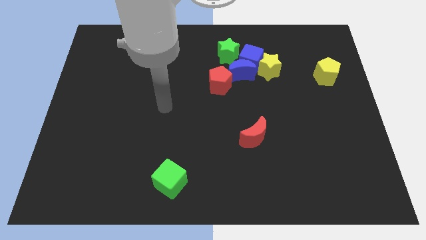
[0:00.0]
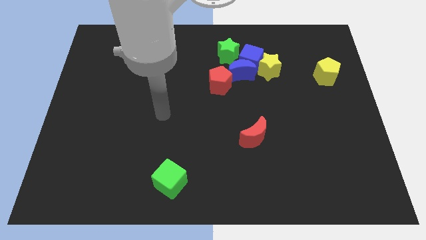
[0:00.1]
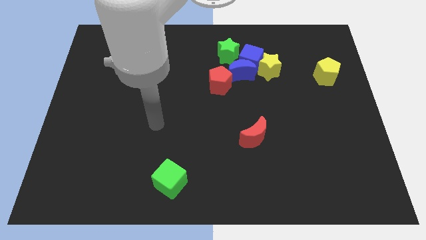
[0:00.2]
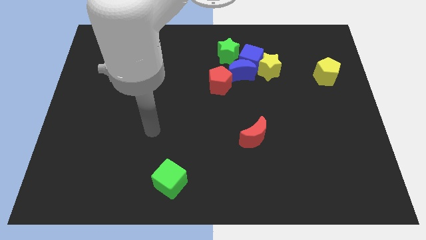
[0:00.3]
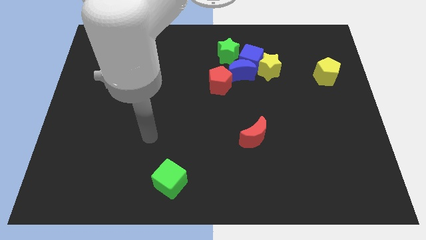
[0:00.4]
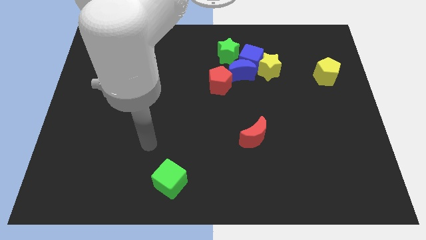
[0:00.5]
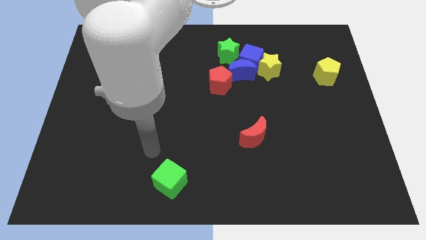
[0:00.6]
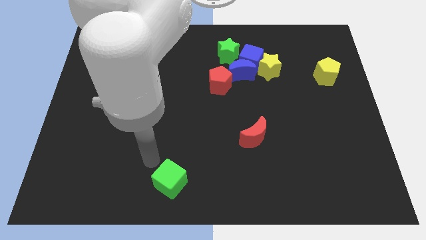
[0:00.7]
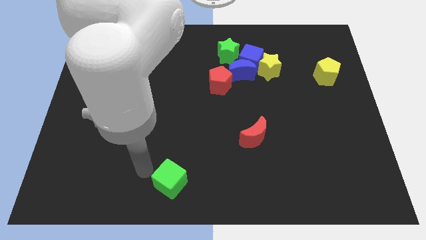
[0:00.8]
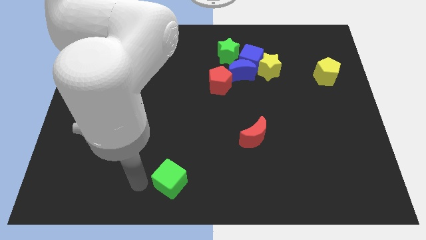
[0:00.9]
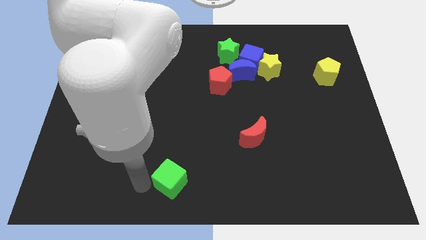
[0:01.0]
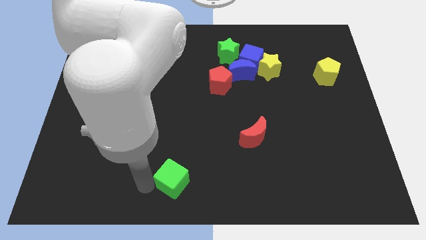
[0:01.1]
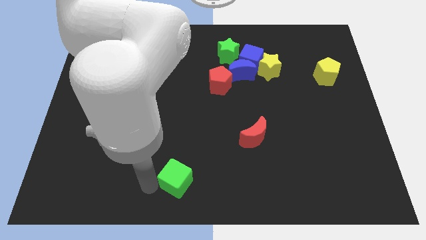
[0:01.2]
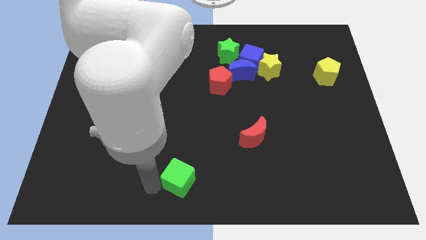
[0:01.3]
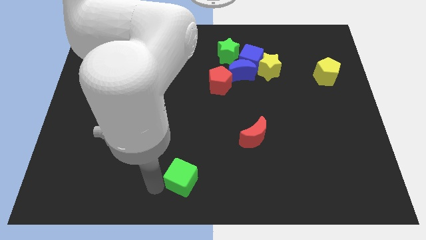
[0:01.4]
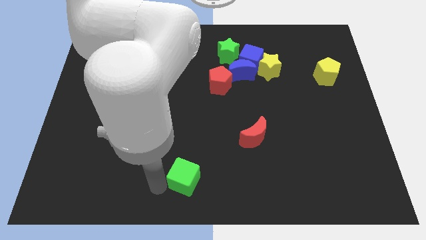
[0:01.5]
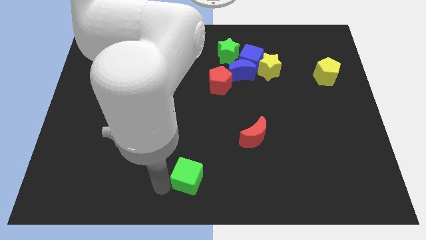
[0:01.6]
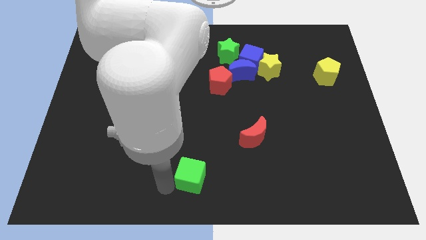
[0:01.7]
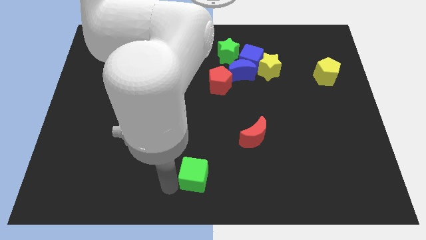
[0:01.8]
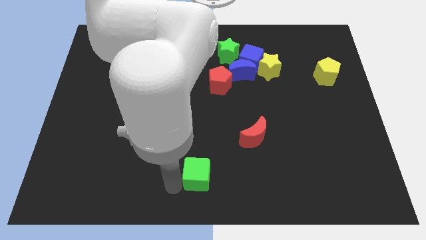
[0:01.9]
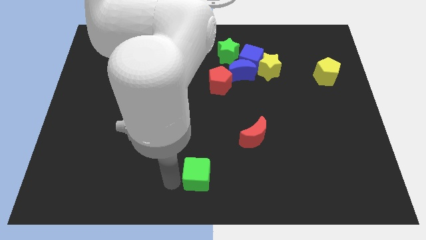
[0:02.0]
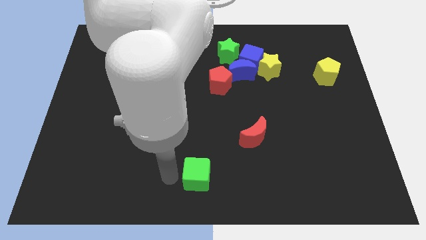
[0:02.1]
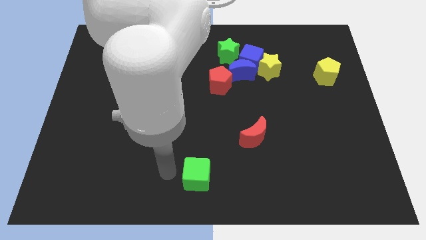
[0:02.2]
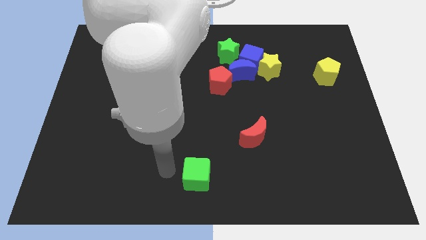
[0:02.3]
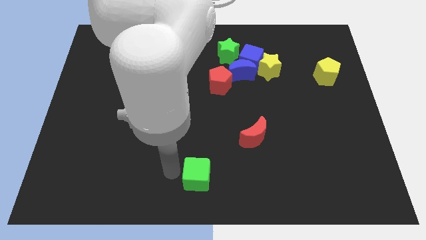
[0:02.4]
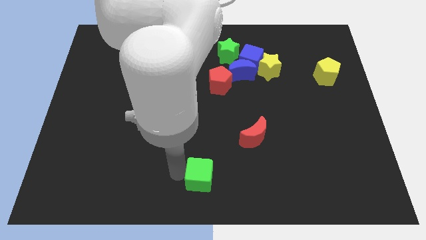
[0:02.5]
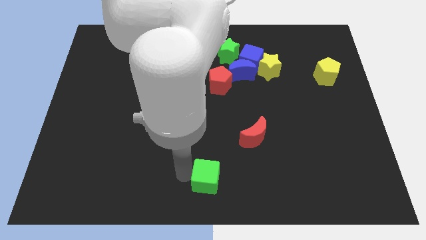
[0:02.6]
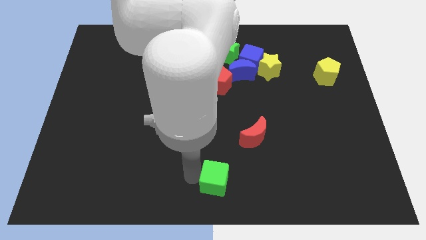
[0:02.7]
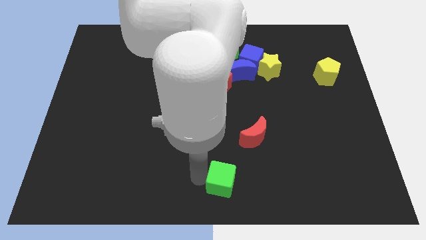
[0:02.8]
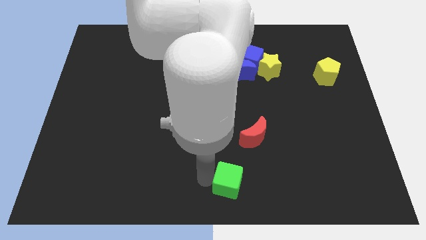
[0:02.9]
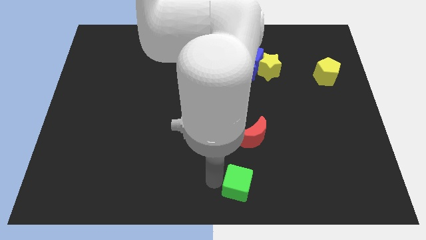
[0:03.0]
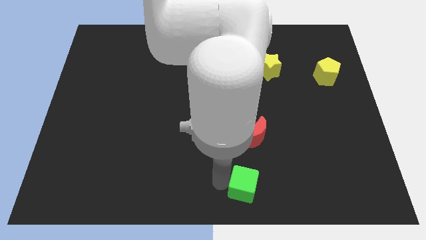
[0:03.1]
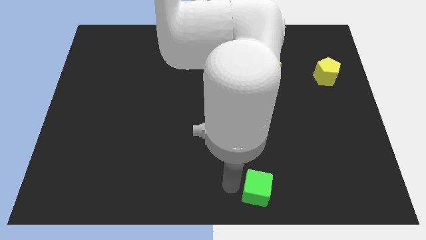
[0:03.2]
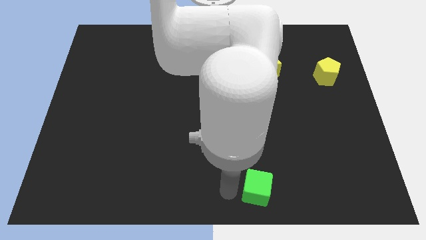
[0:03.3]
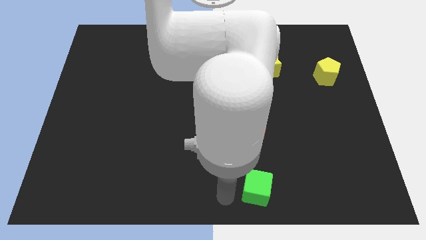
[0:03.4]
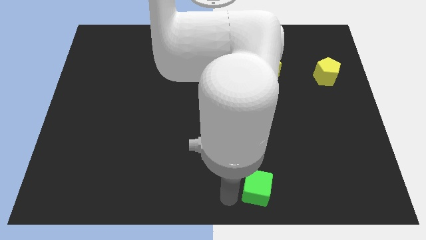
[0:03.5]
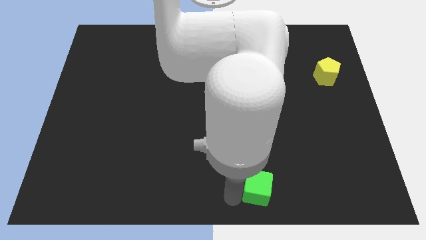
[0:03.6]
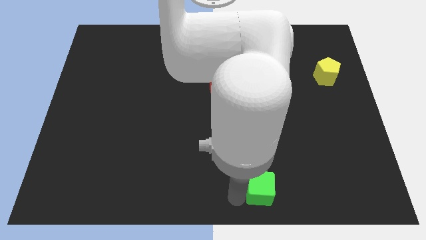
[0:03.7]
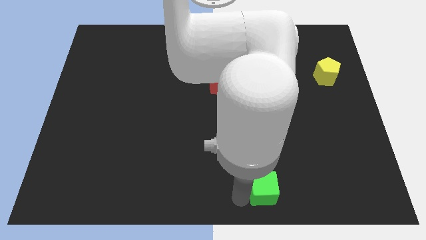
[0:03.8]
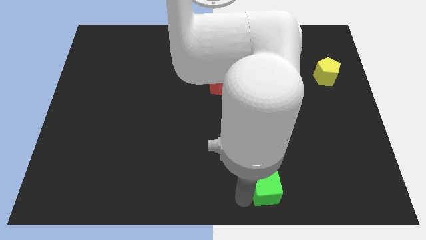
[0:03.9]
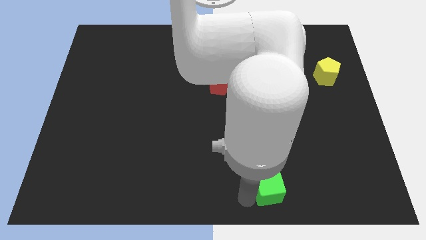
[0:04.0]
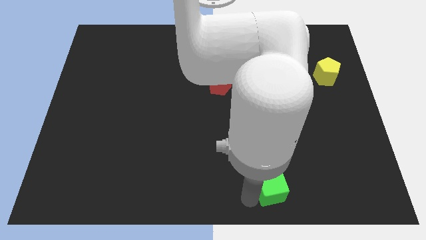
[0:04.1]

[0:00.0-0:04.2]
slide the green cube to the right

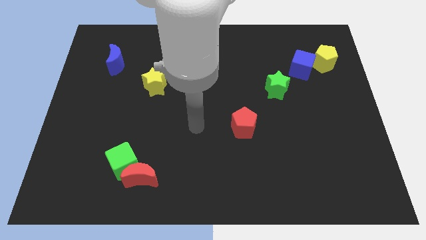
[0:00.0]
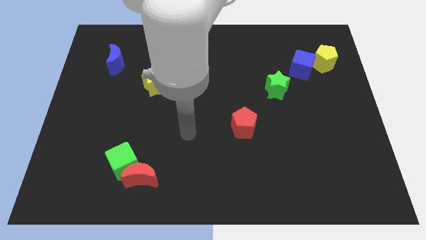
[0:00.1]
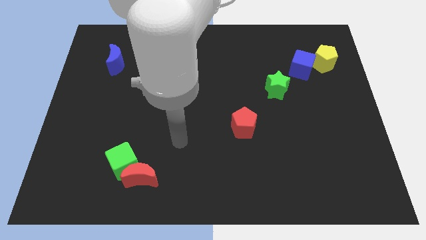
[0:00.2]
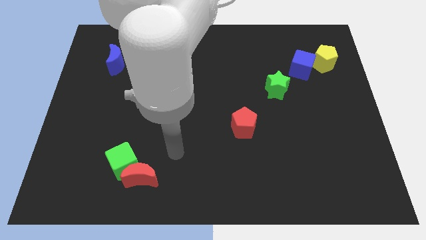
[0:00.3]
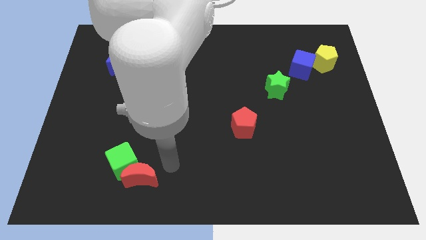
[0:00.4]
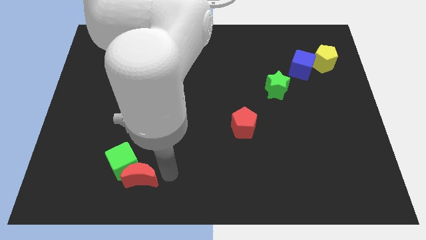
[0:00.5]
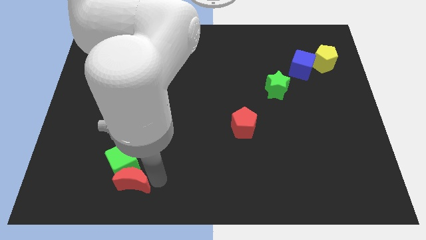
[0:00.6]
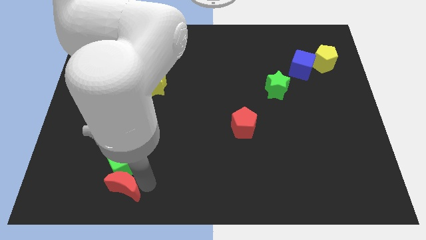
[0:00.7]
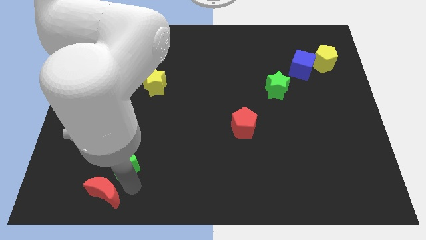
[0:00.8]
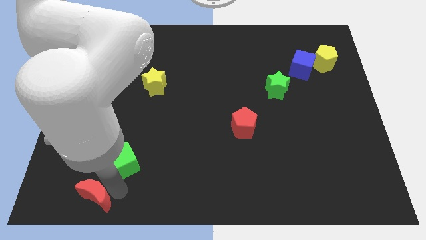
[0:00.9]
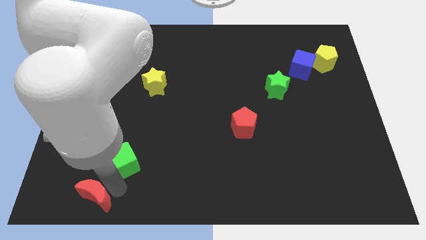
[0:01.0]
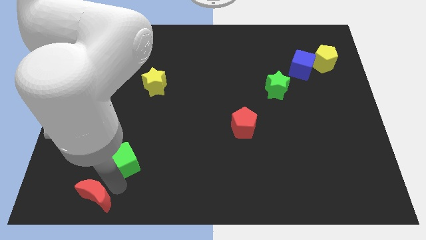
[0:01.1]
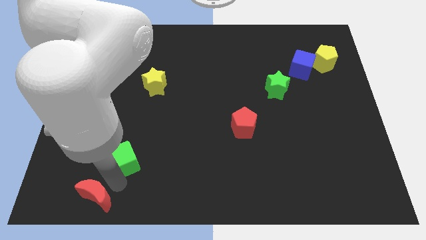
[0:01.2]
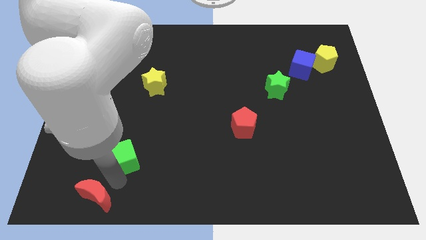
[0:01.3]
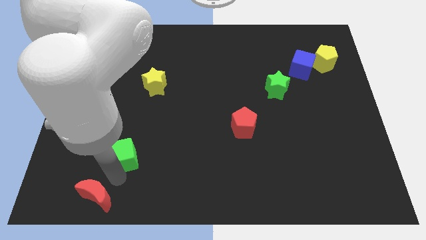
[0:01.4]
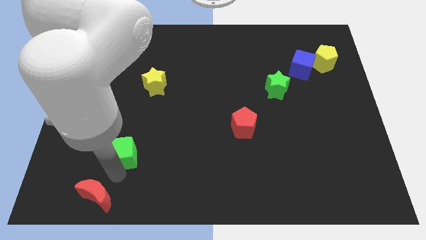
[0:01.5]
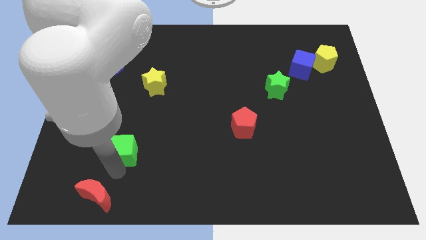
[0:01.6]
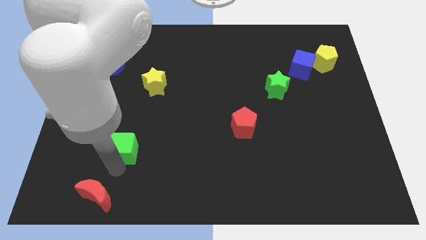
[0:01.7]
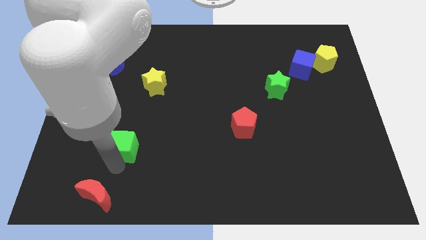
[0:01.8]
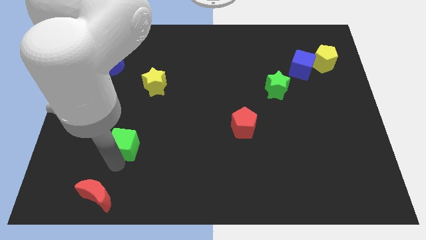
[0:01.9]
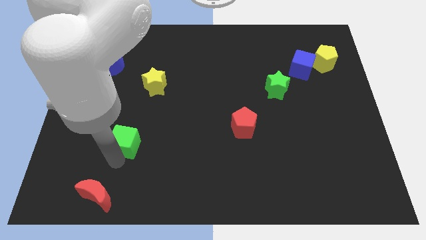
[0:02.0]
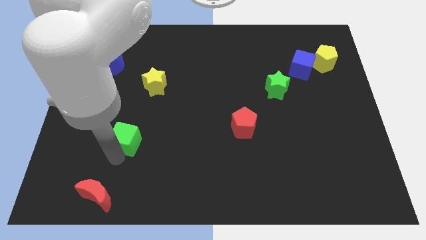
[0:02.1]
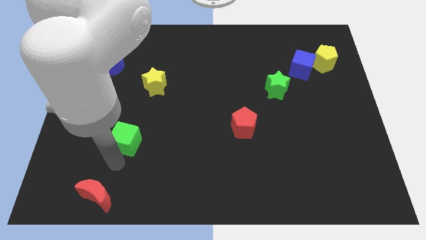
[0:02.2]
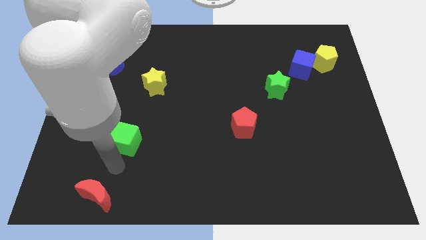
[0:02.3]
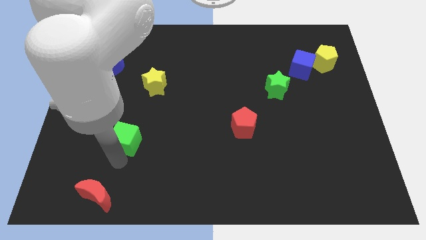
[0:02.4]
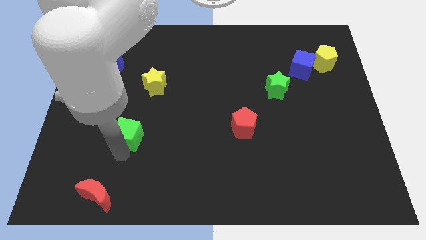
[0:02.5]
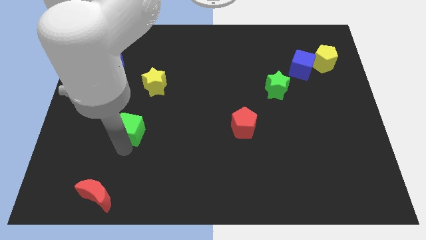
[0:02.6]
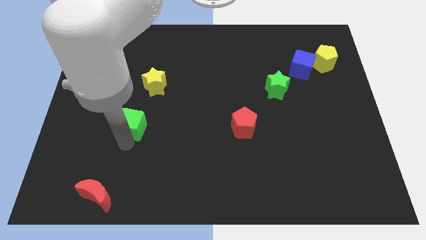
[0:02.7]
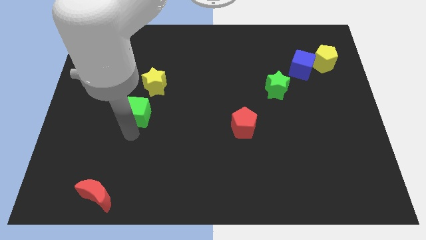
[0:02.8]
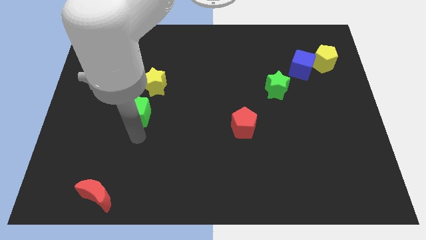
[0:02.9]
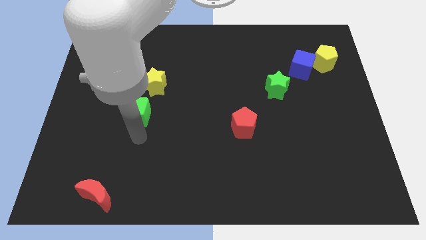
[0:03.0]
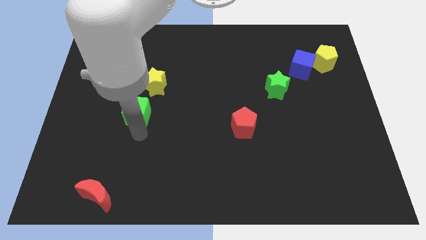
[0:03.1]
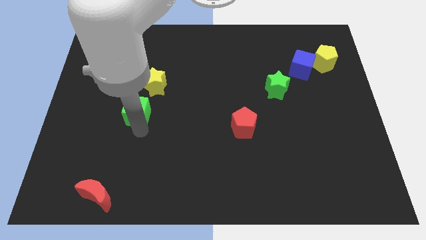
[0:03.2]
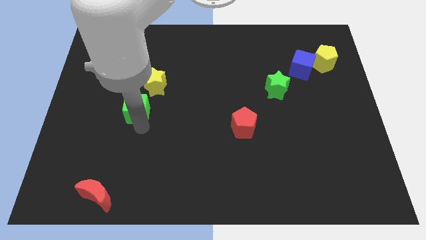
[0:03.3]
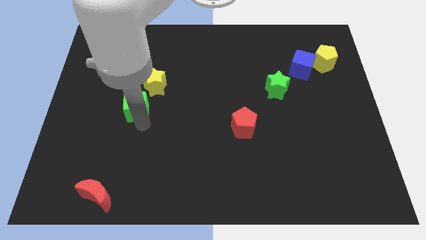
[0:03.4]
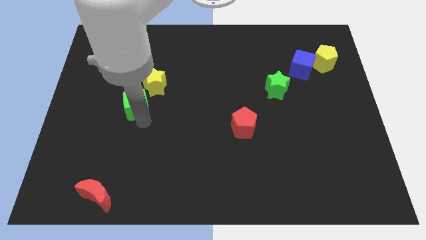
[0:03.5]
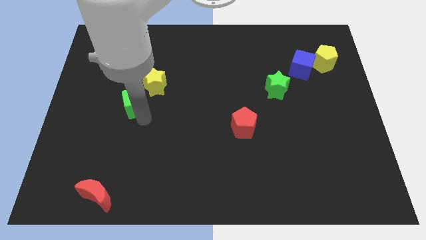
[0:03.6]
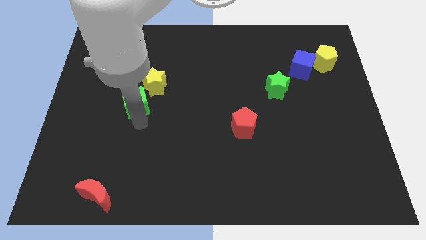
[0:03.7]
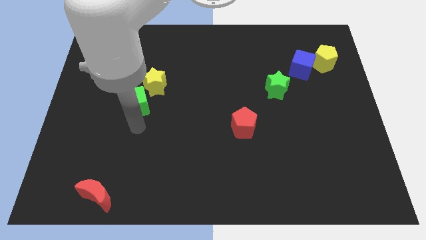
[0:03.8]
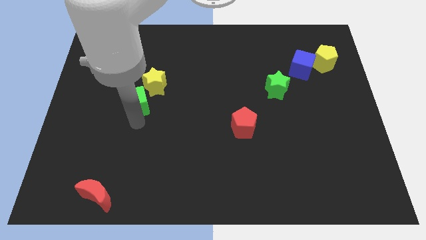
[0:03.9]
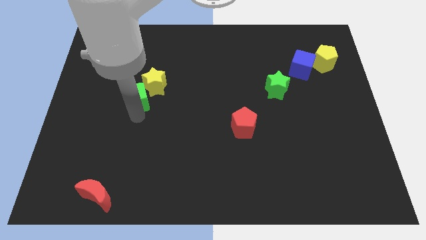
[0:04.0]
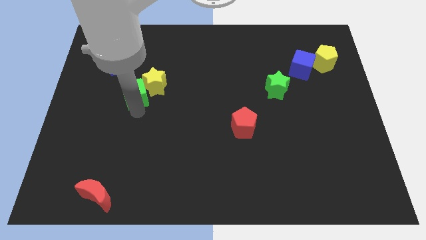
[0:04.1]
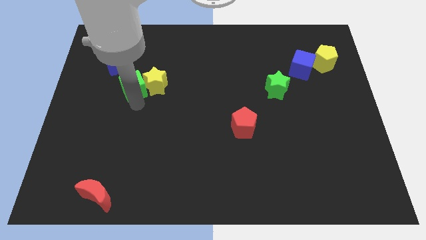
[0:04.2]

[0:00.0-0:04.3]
push the green cube up
